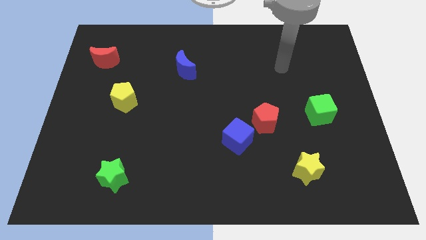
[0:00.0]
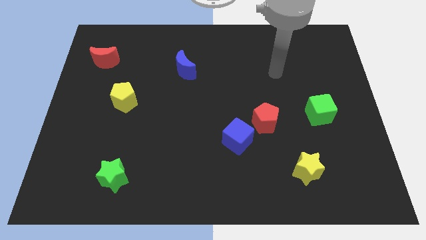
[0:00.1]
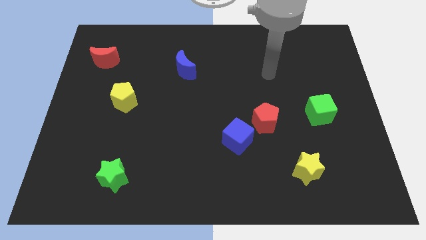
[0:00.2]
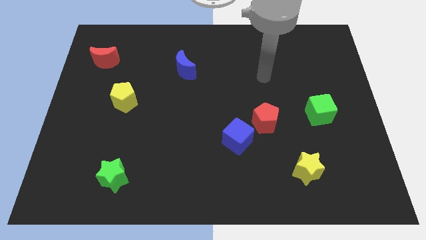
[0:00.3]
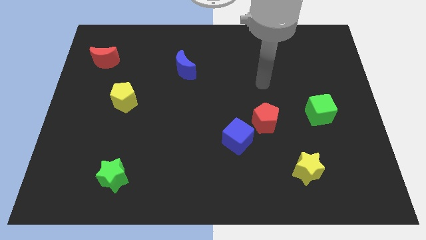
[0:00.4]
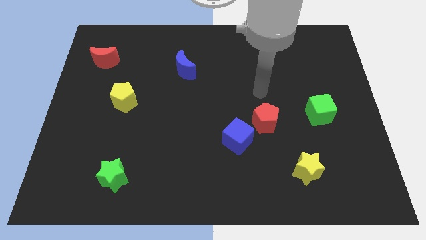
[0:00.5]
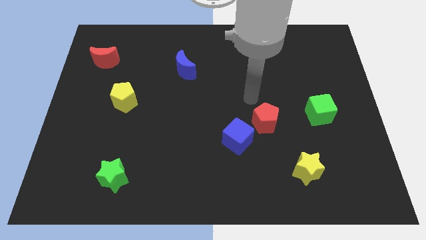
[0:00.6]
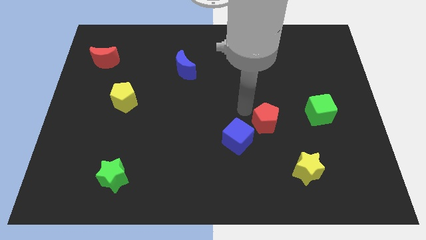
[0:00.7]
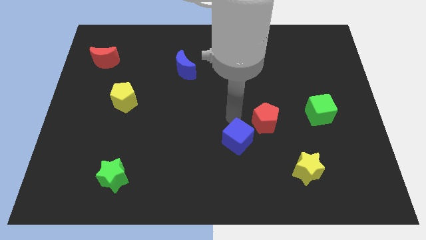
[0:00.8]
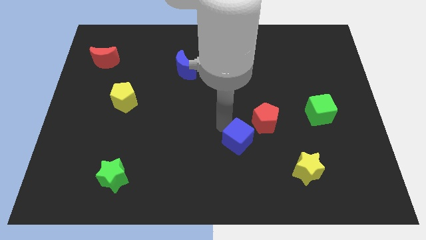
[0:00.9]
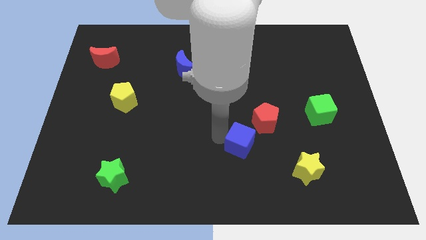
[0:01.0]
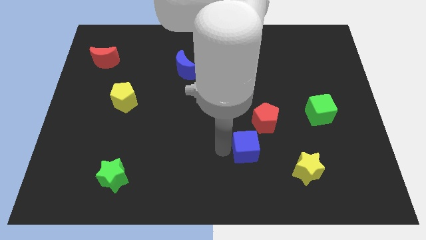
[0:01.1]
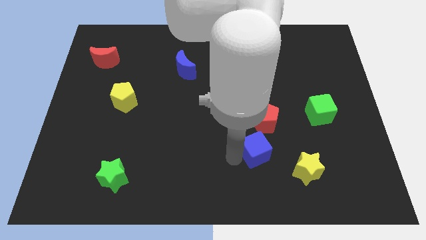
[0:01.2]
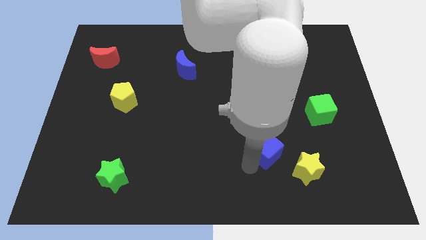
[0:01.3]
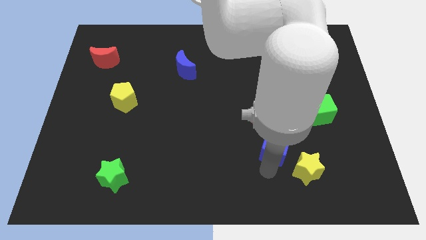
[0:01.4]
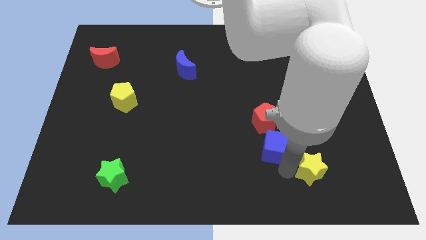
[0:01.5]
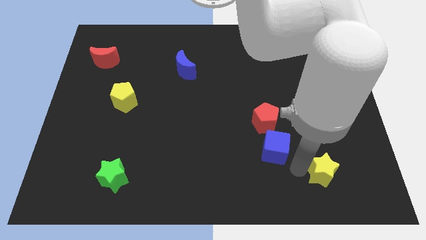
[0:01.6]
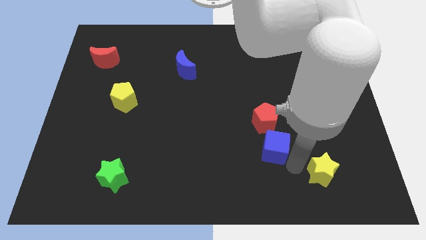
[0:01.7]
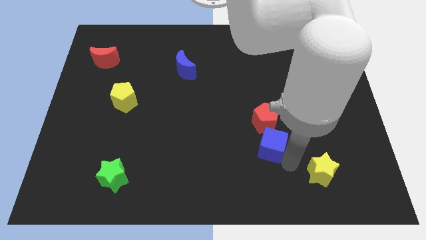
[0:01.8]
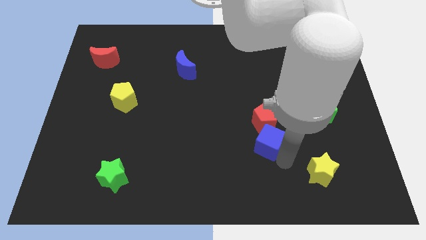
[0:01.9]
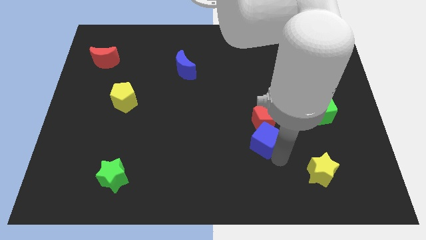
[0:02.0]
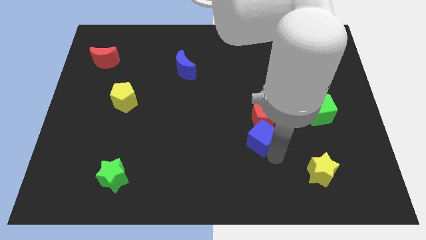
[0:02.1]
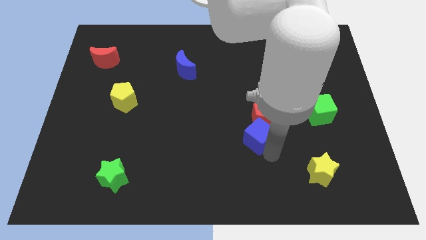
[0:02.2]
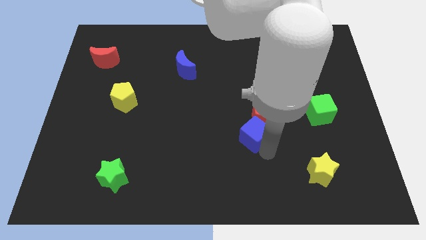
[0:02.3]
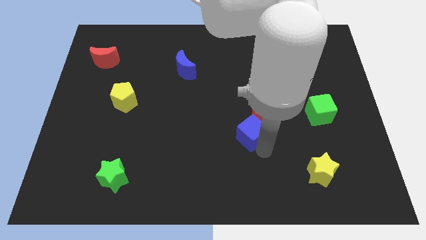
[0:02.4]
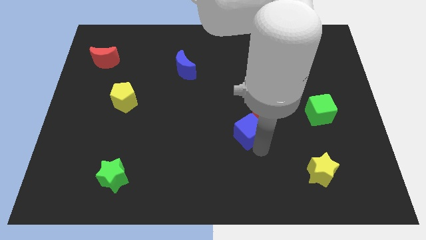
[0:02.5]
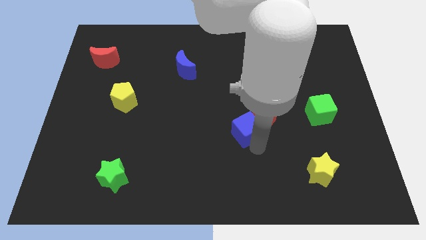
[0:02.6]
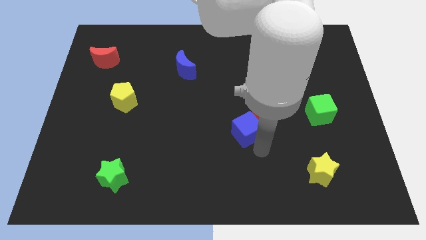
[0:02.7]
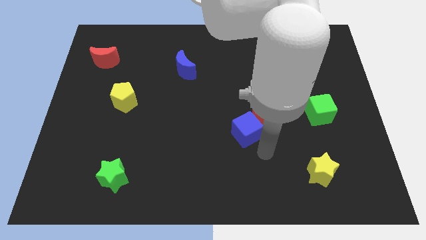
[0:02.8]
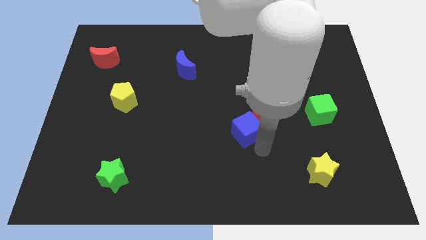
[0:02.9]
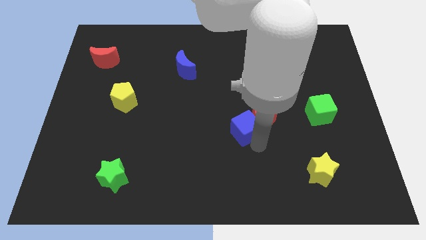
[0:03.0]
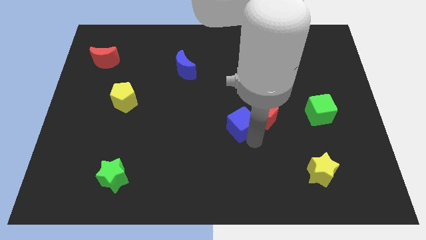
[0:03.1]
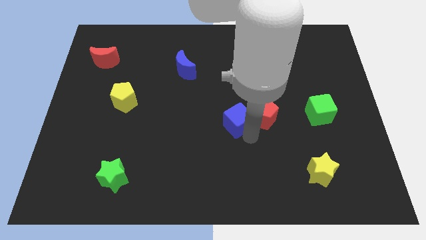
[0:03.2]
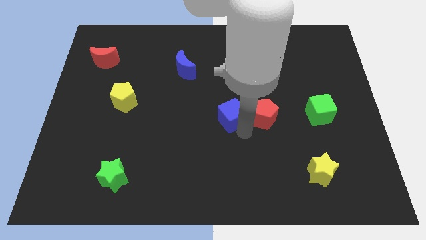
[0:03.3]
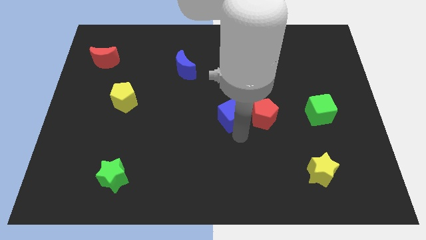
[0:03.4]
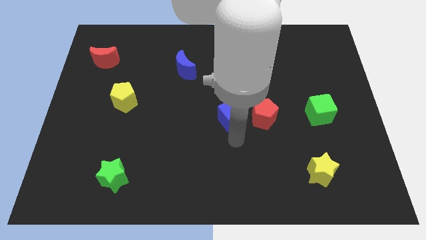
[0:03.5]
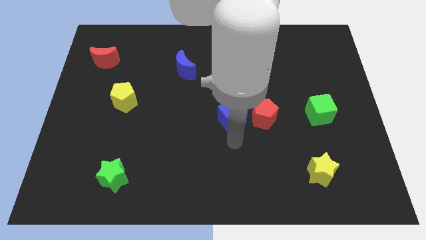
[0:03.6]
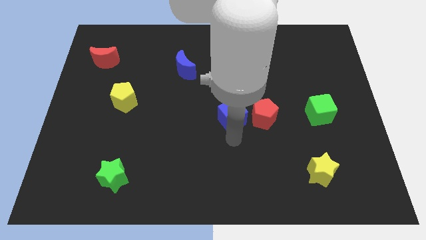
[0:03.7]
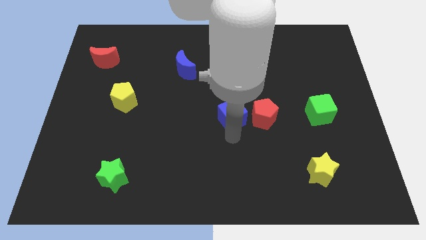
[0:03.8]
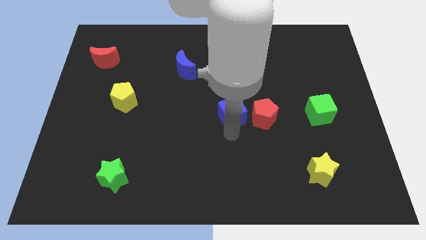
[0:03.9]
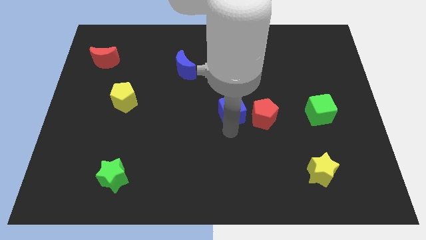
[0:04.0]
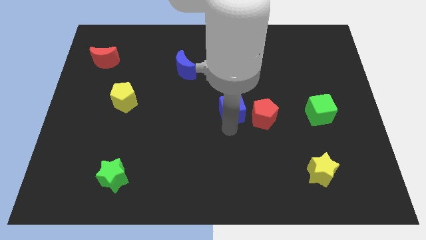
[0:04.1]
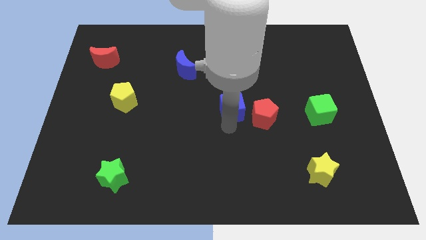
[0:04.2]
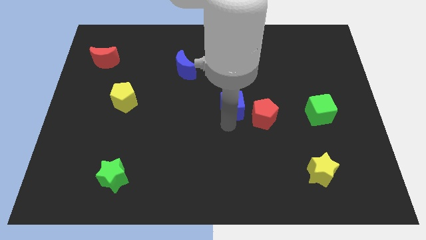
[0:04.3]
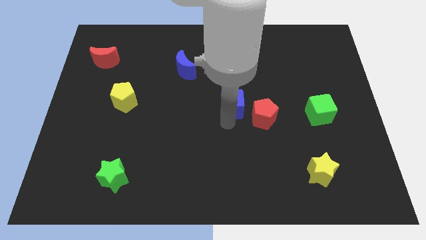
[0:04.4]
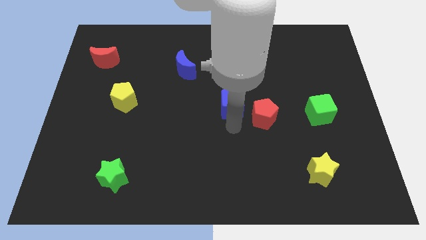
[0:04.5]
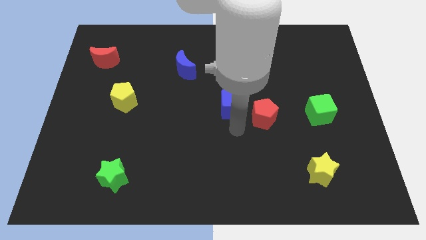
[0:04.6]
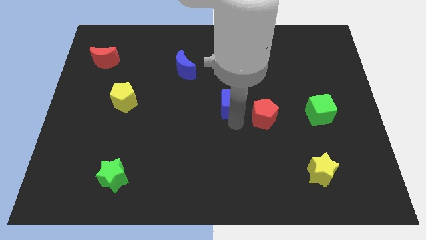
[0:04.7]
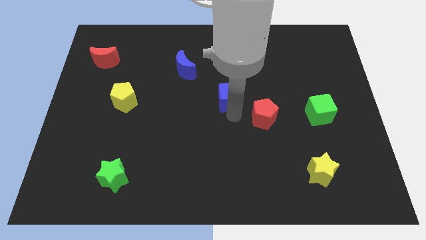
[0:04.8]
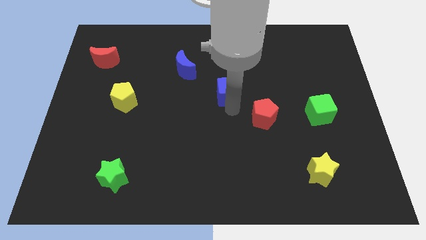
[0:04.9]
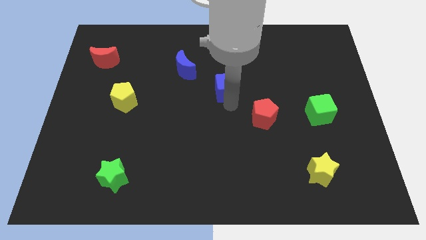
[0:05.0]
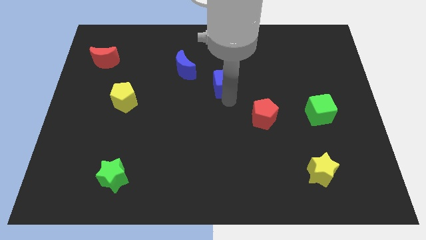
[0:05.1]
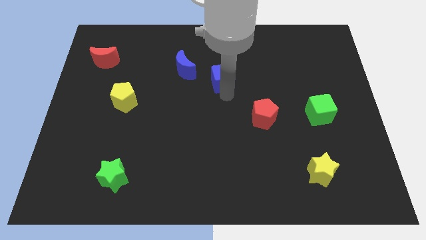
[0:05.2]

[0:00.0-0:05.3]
move the blue cube just right of the blue moon

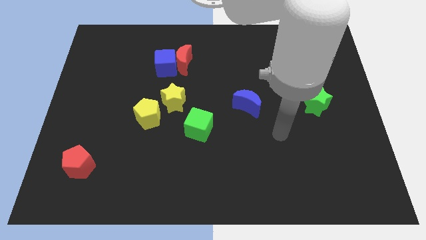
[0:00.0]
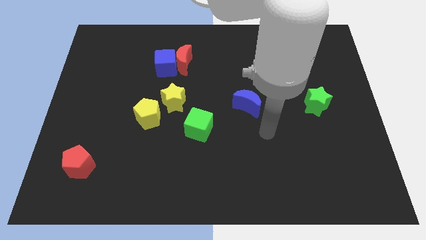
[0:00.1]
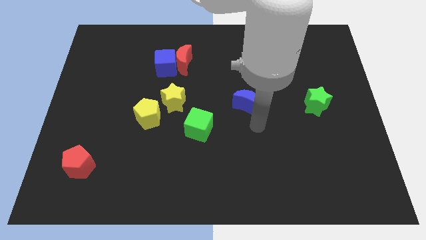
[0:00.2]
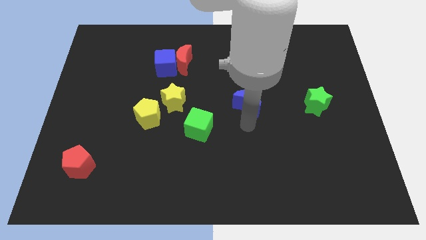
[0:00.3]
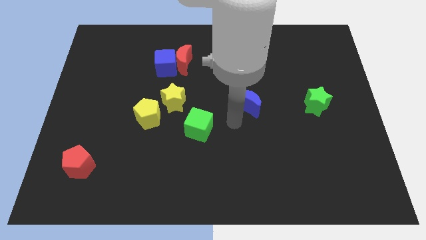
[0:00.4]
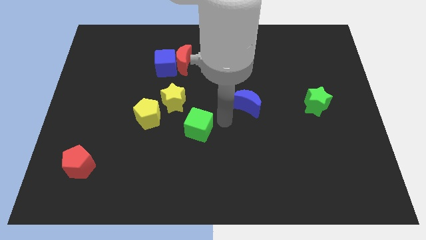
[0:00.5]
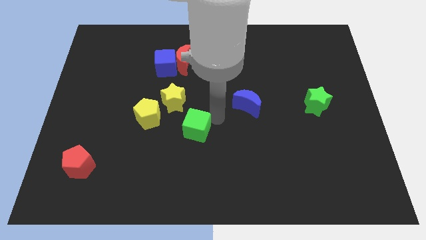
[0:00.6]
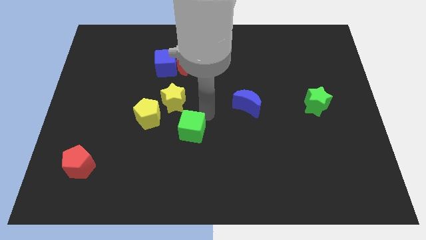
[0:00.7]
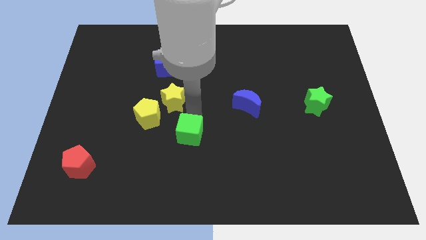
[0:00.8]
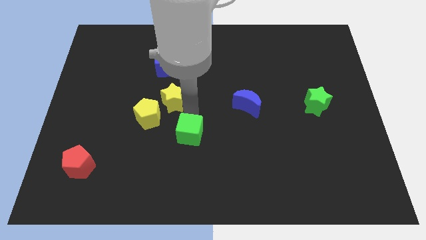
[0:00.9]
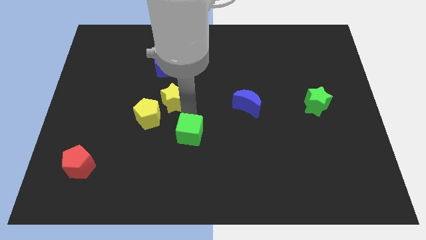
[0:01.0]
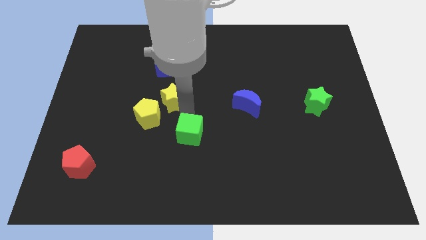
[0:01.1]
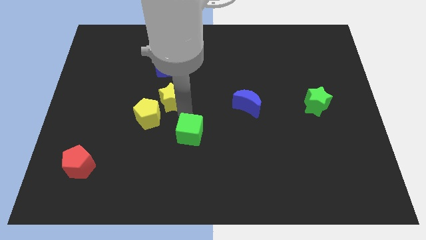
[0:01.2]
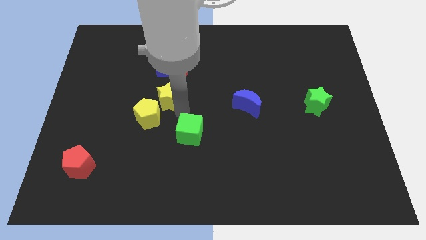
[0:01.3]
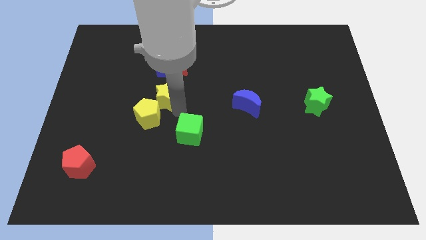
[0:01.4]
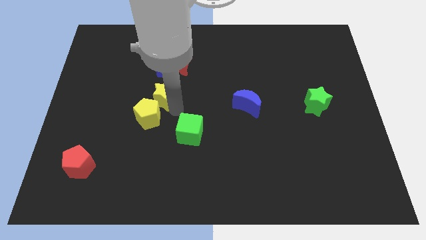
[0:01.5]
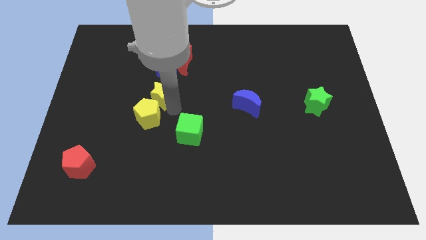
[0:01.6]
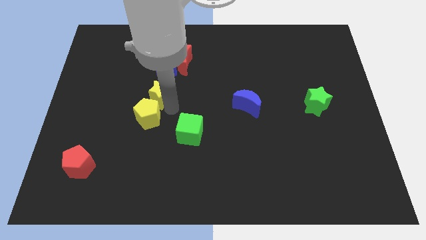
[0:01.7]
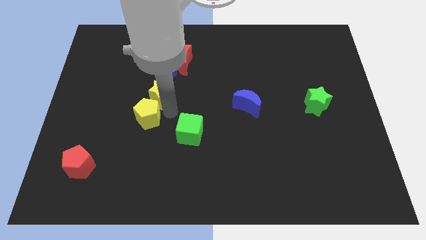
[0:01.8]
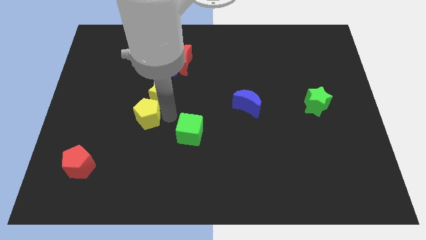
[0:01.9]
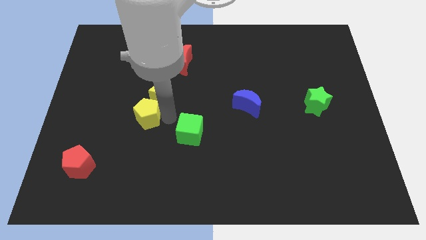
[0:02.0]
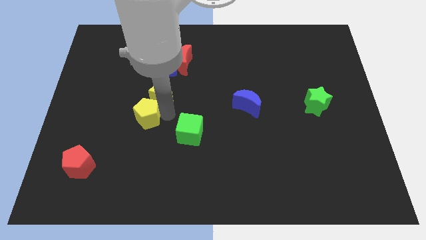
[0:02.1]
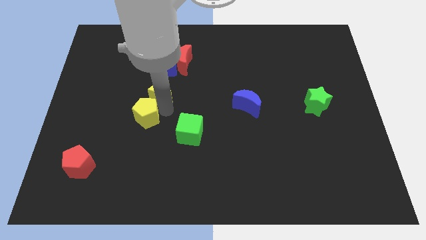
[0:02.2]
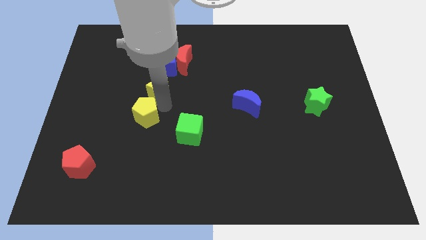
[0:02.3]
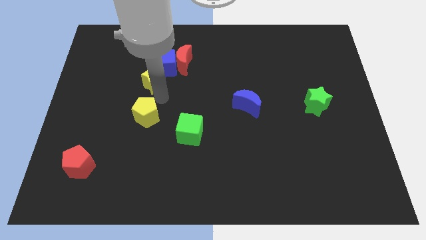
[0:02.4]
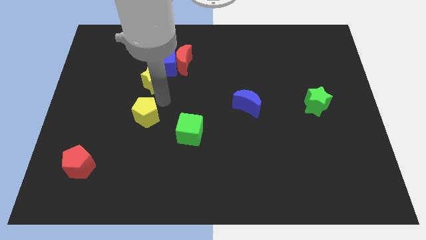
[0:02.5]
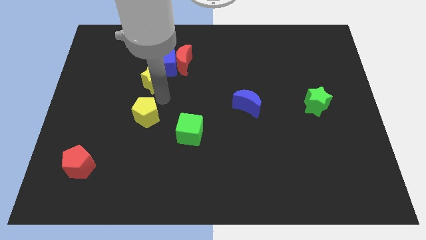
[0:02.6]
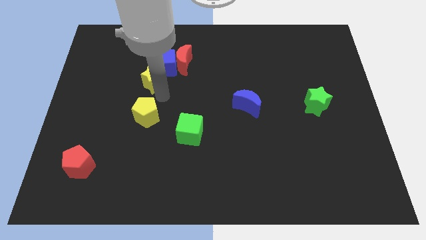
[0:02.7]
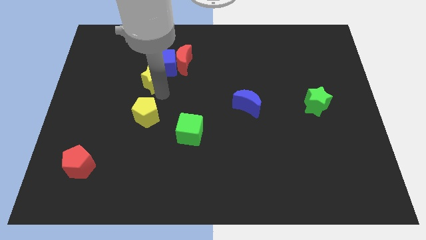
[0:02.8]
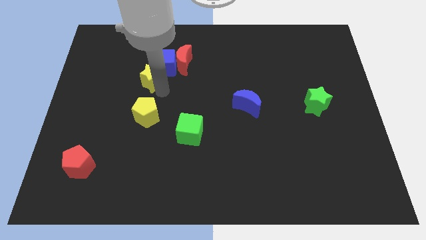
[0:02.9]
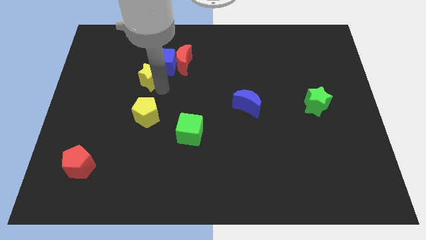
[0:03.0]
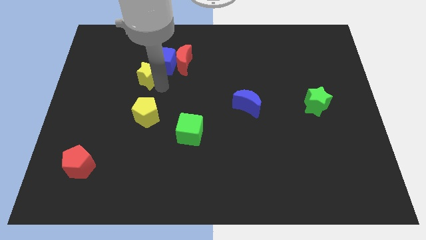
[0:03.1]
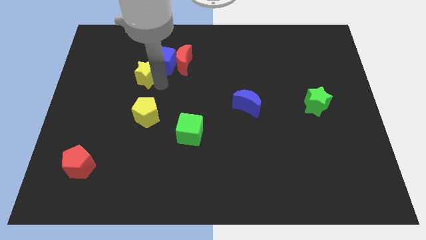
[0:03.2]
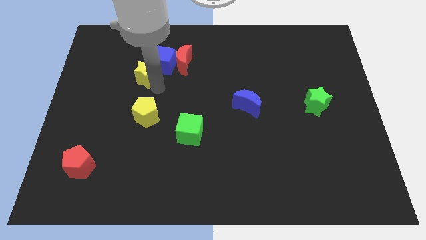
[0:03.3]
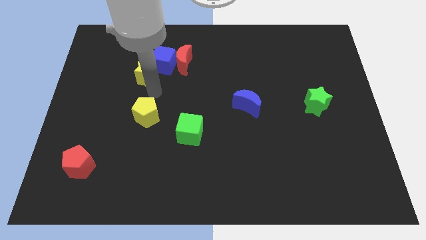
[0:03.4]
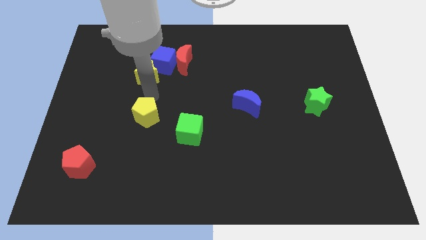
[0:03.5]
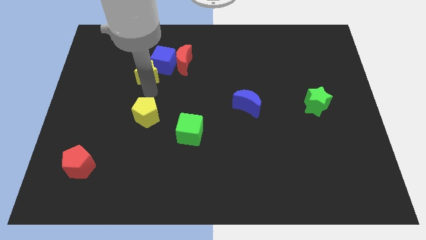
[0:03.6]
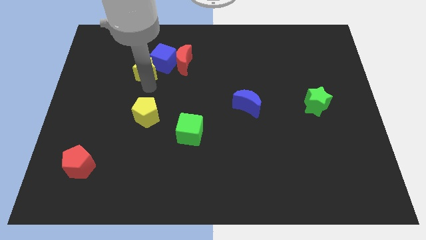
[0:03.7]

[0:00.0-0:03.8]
put the yellow star left of the red moon
